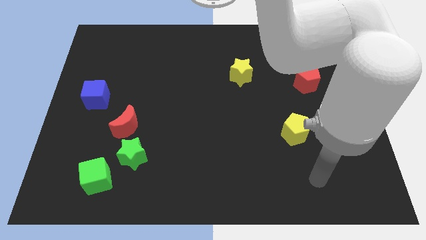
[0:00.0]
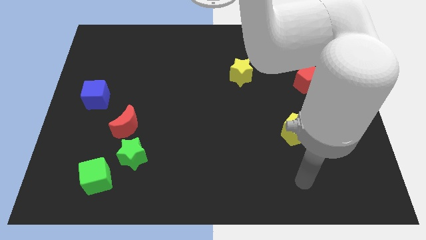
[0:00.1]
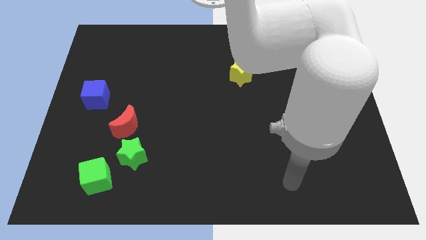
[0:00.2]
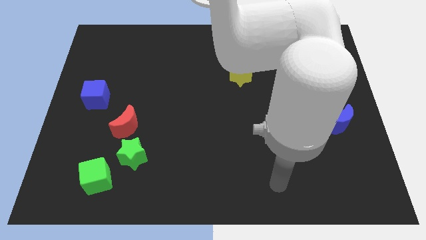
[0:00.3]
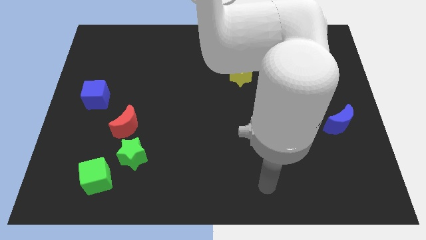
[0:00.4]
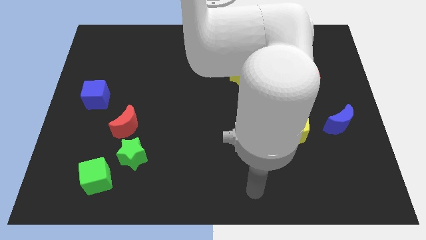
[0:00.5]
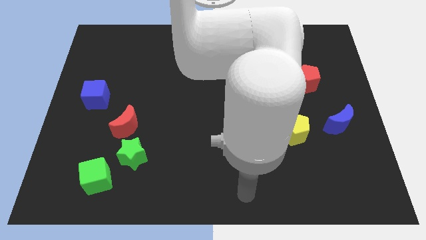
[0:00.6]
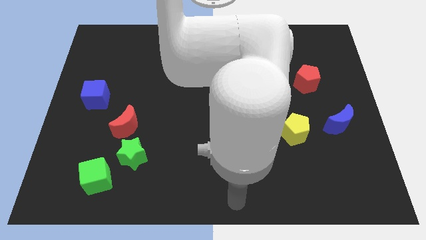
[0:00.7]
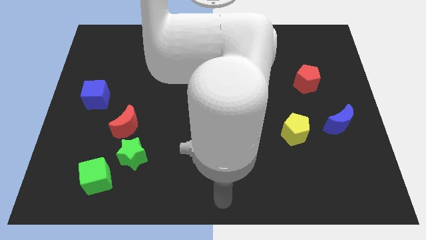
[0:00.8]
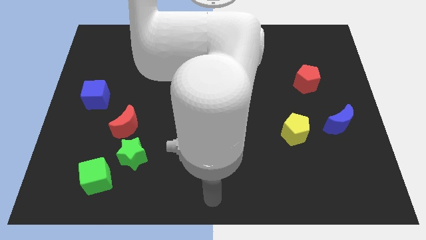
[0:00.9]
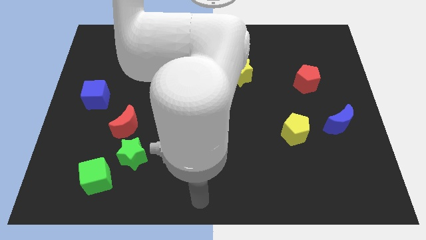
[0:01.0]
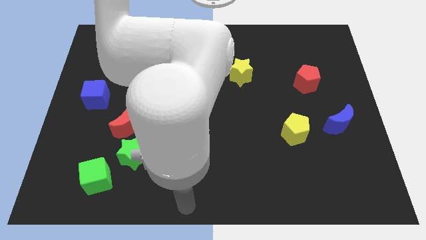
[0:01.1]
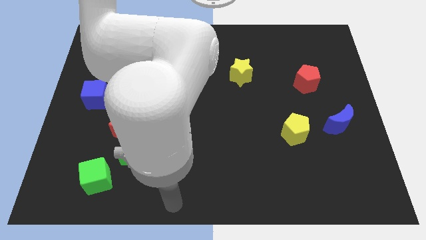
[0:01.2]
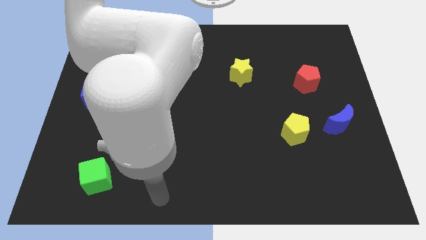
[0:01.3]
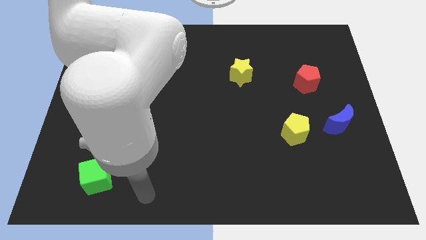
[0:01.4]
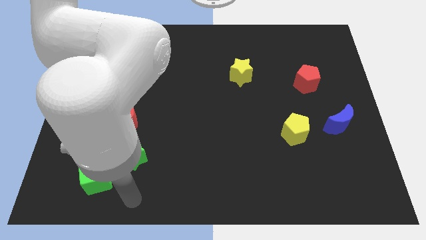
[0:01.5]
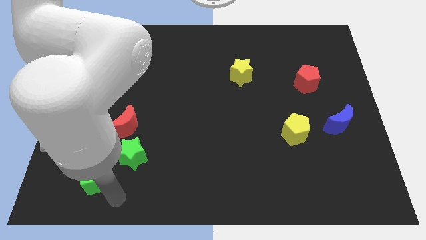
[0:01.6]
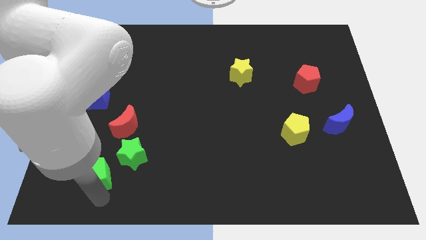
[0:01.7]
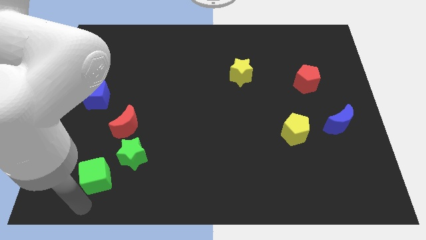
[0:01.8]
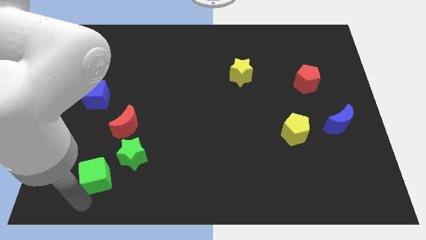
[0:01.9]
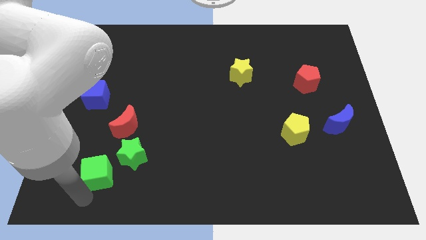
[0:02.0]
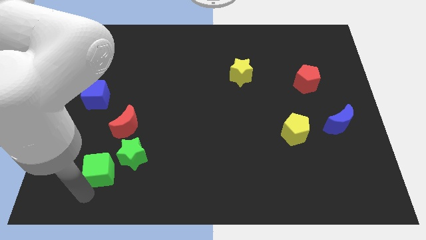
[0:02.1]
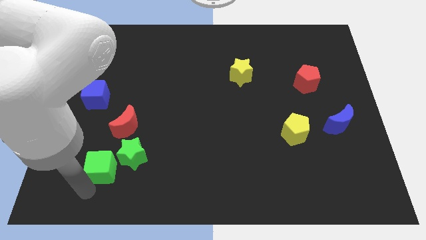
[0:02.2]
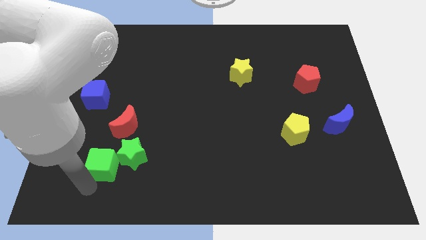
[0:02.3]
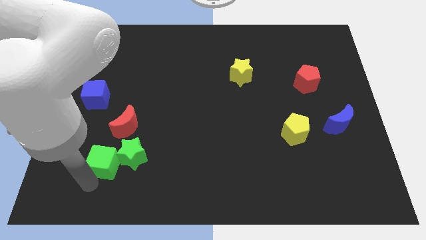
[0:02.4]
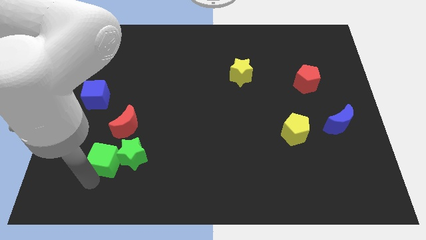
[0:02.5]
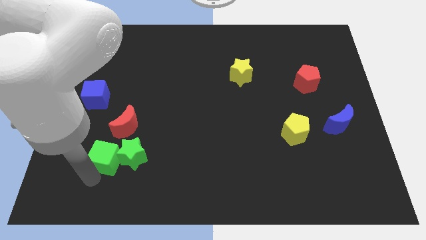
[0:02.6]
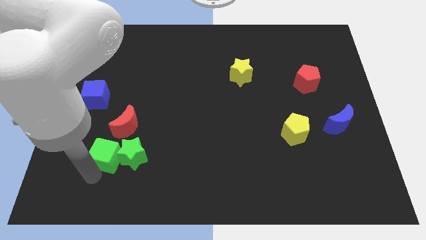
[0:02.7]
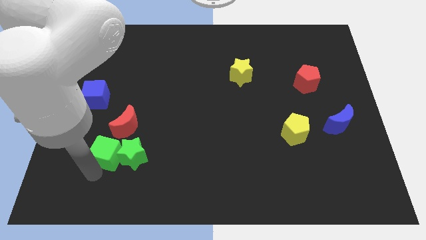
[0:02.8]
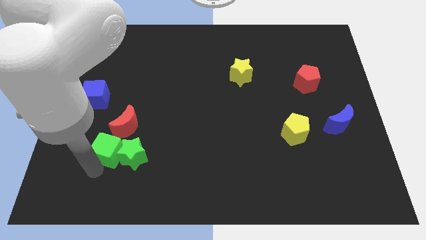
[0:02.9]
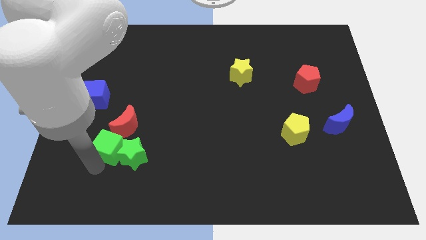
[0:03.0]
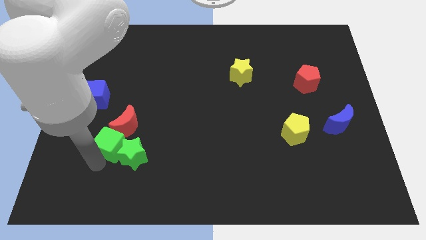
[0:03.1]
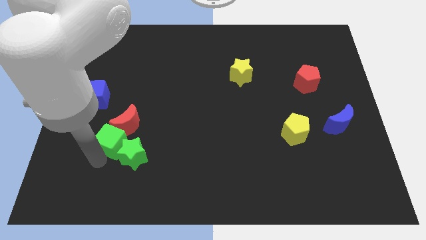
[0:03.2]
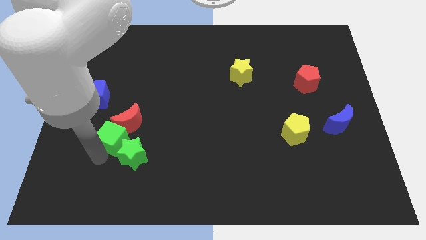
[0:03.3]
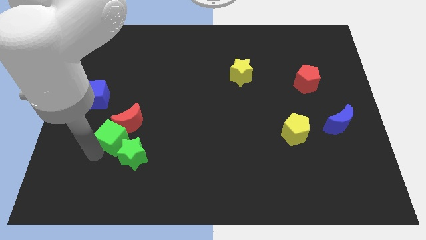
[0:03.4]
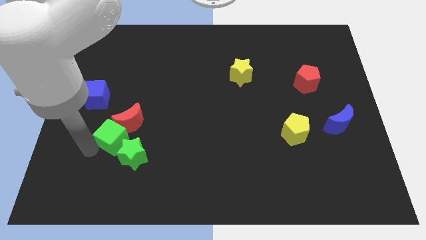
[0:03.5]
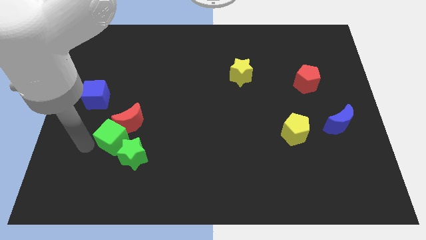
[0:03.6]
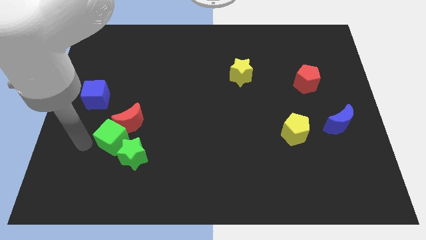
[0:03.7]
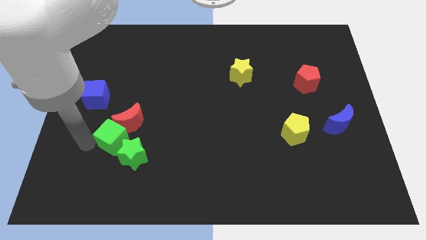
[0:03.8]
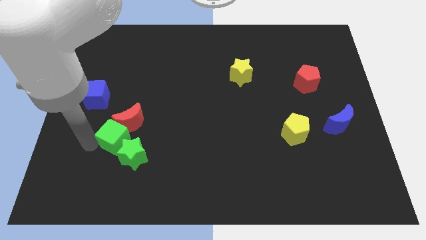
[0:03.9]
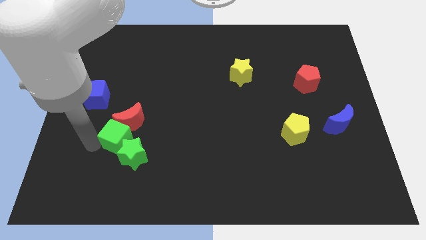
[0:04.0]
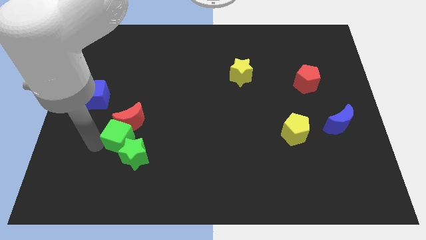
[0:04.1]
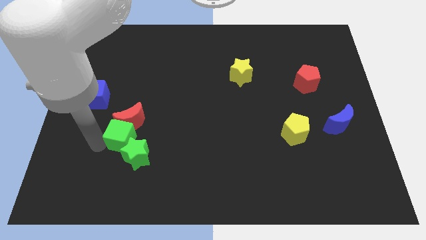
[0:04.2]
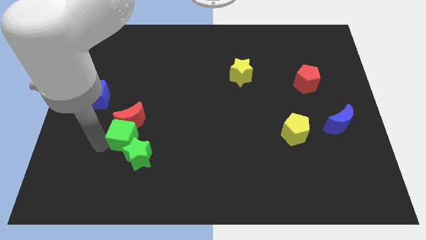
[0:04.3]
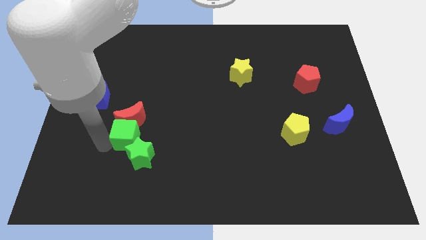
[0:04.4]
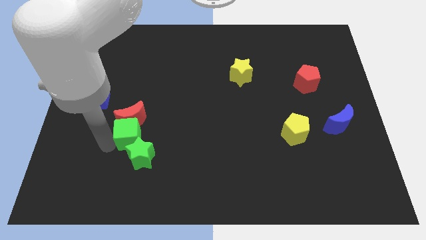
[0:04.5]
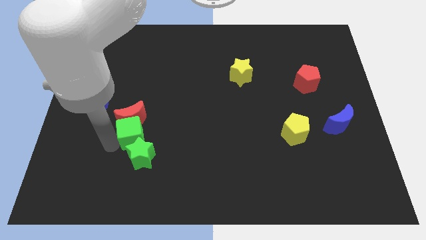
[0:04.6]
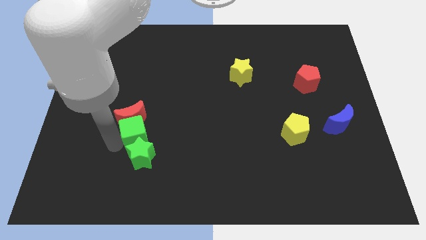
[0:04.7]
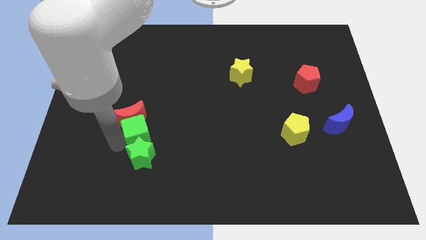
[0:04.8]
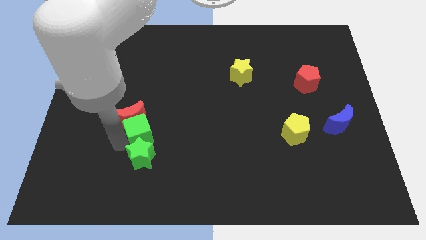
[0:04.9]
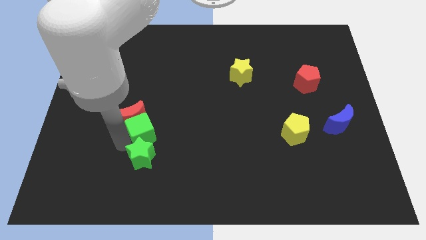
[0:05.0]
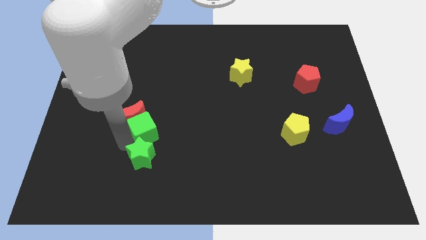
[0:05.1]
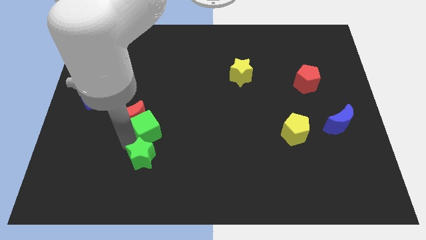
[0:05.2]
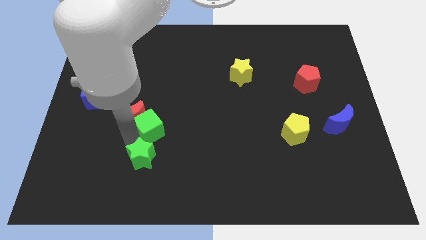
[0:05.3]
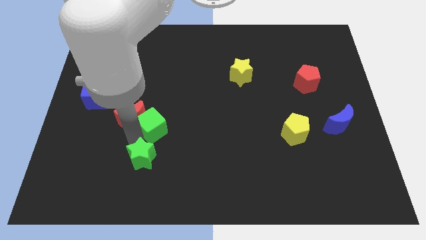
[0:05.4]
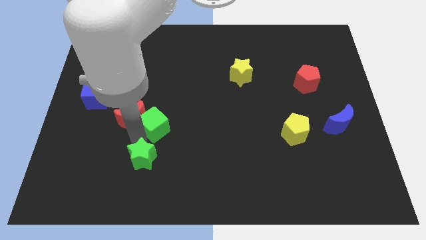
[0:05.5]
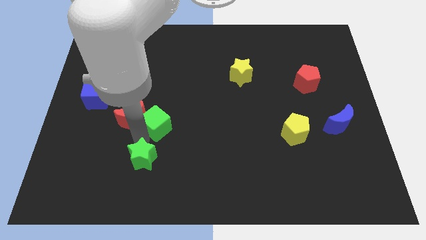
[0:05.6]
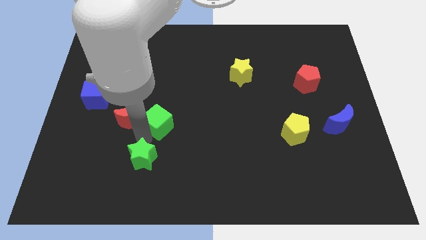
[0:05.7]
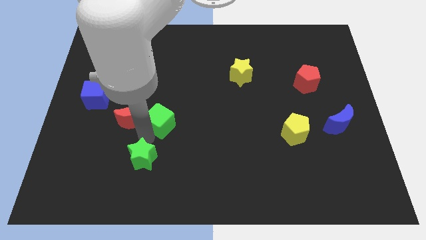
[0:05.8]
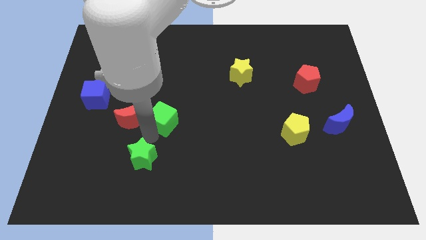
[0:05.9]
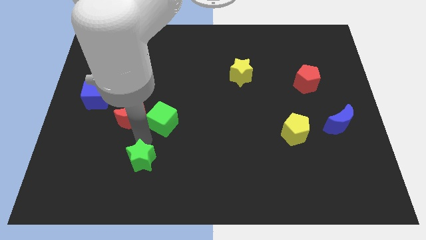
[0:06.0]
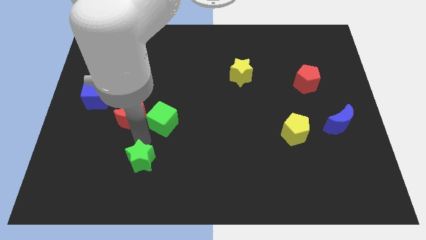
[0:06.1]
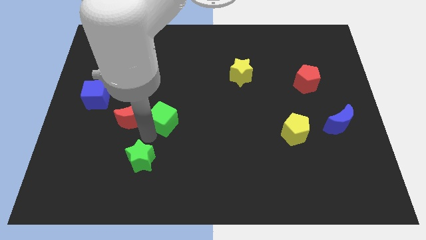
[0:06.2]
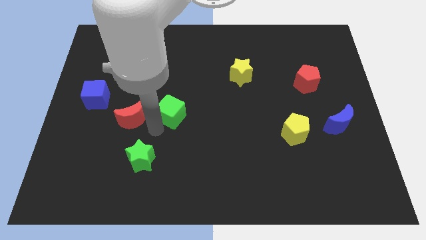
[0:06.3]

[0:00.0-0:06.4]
move the green cube up and to the right

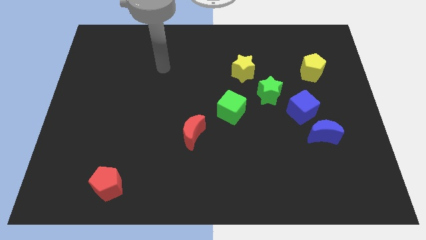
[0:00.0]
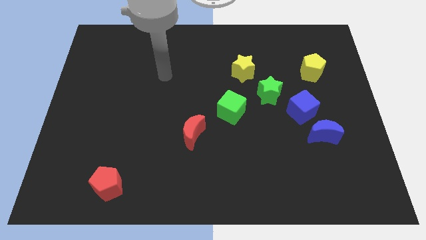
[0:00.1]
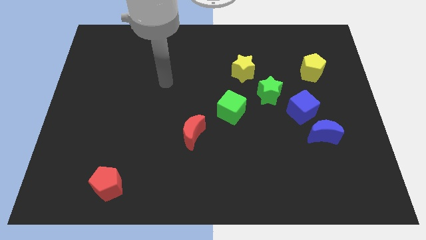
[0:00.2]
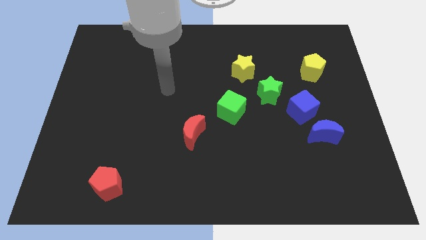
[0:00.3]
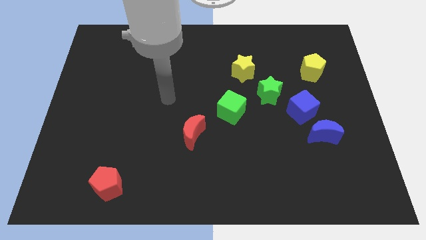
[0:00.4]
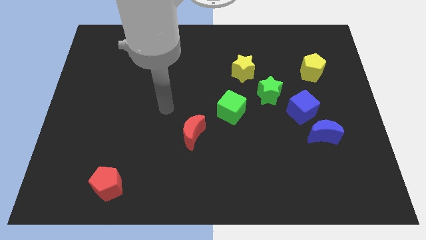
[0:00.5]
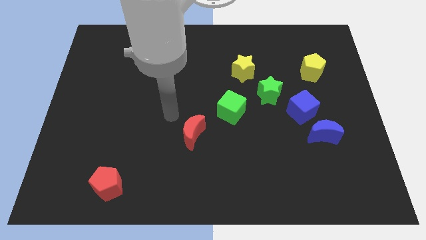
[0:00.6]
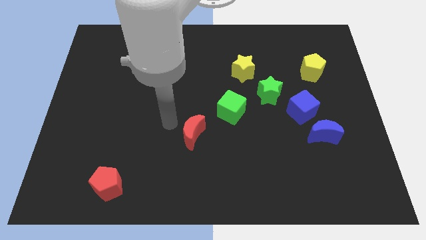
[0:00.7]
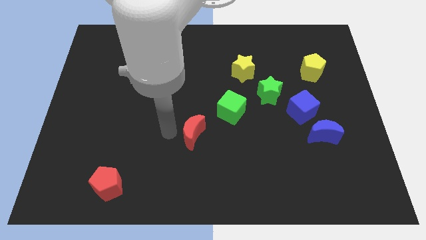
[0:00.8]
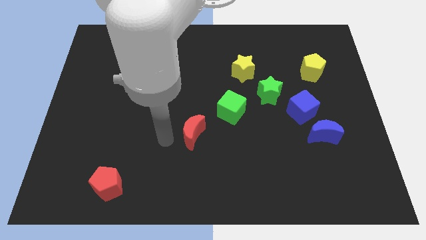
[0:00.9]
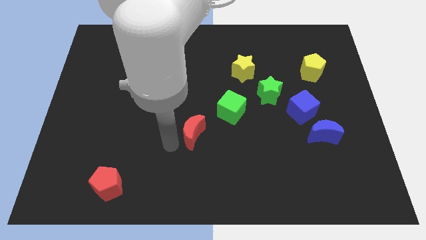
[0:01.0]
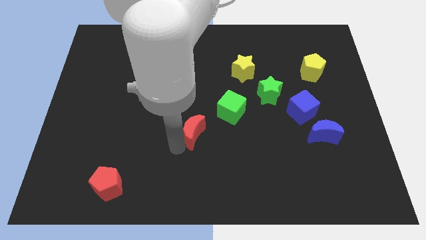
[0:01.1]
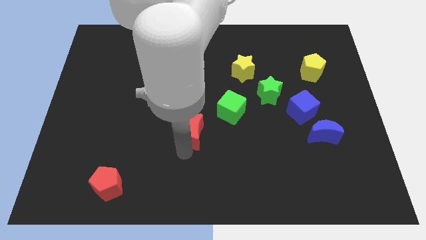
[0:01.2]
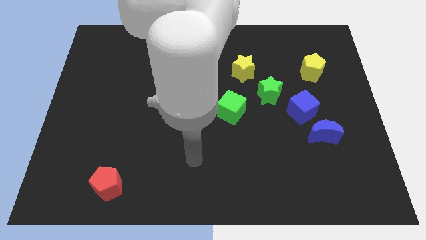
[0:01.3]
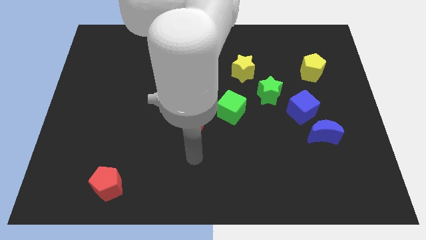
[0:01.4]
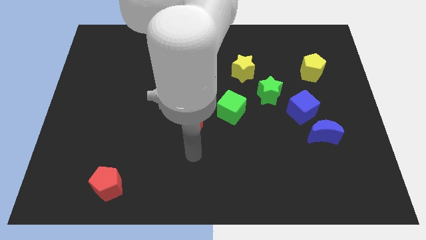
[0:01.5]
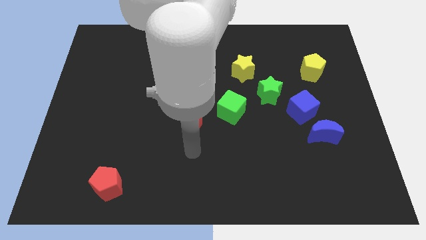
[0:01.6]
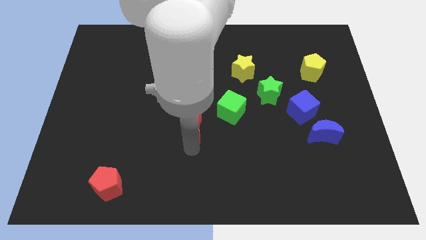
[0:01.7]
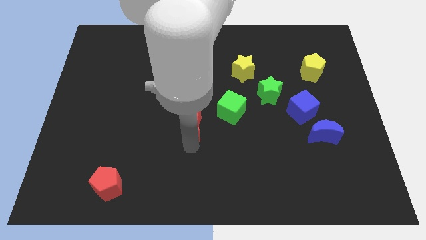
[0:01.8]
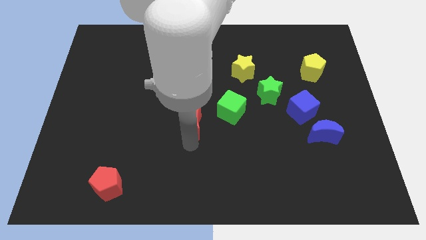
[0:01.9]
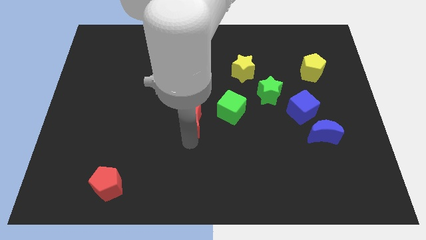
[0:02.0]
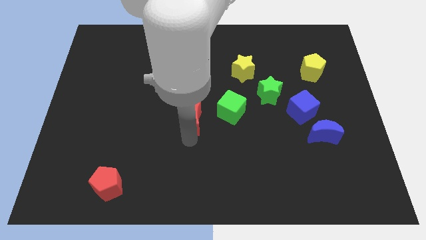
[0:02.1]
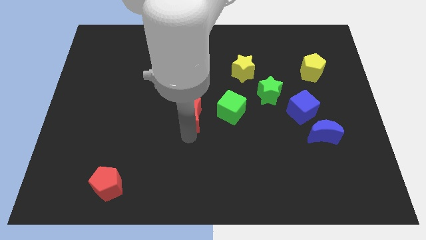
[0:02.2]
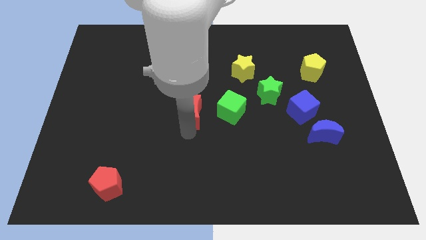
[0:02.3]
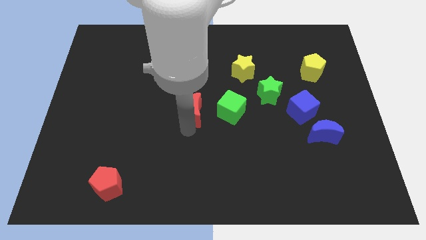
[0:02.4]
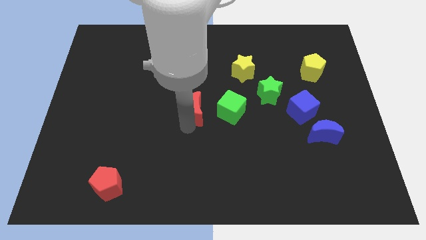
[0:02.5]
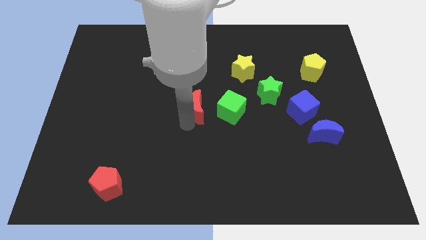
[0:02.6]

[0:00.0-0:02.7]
push the red moon a little up
